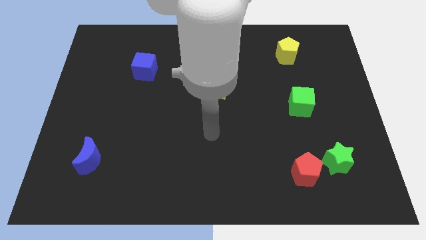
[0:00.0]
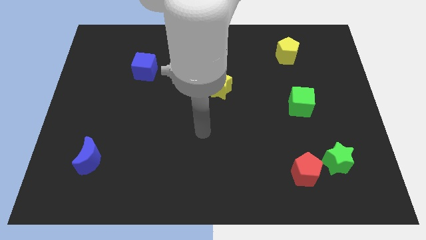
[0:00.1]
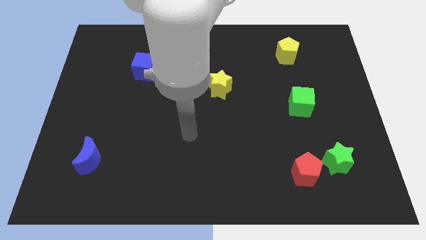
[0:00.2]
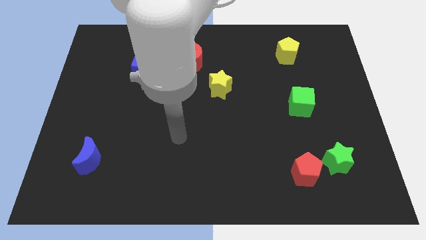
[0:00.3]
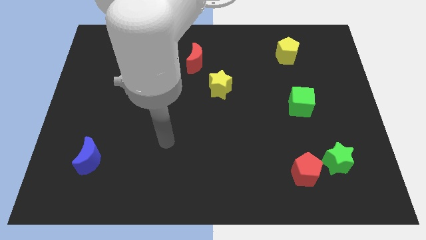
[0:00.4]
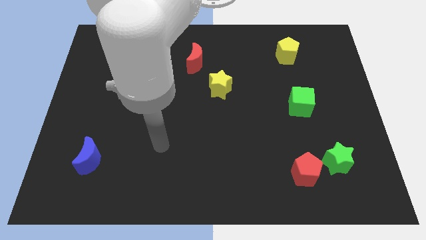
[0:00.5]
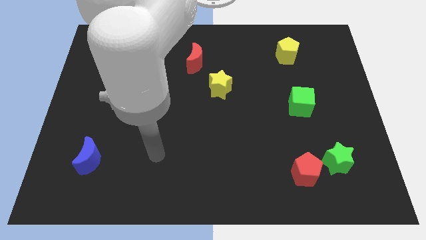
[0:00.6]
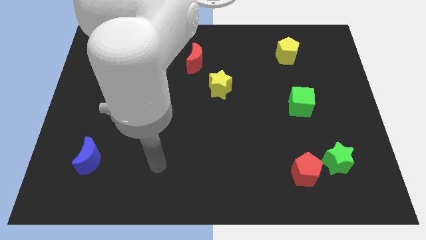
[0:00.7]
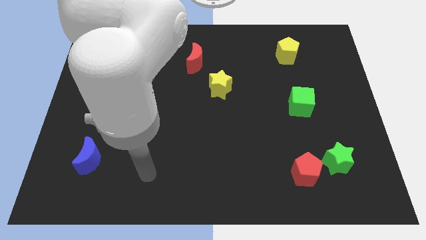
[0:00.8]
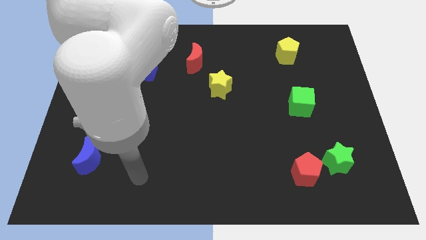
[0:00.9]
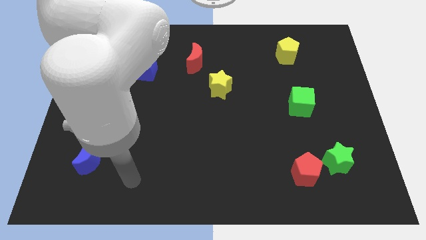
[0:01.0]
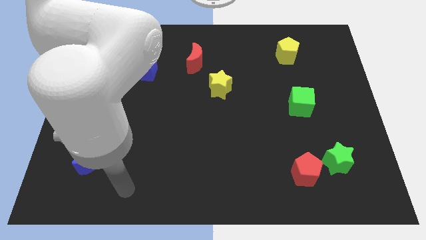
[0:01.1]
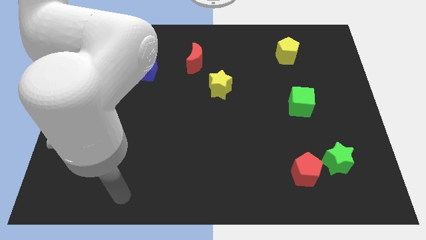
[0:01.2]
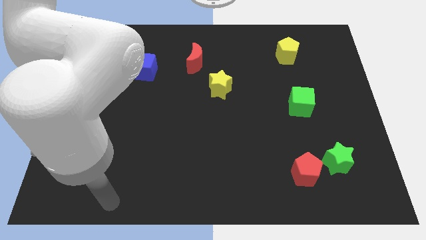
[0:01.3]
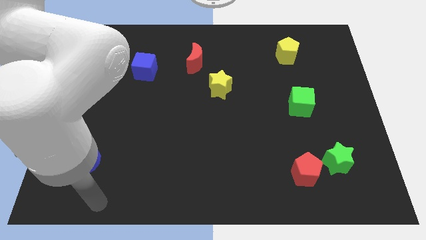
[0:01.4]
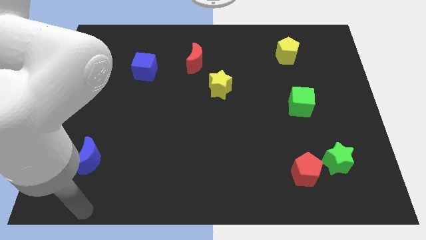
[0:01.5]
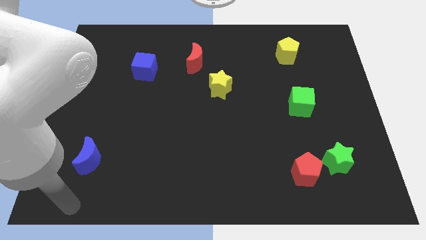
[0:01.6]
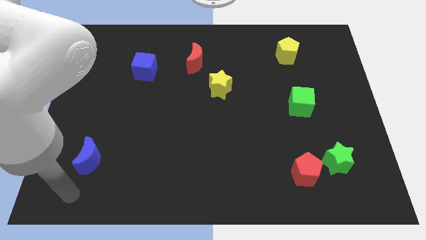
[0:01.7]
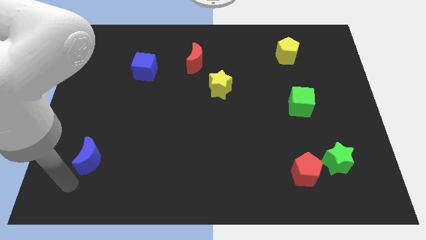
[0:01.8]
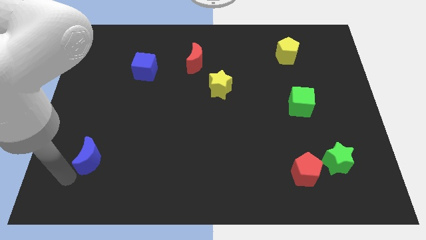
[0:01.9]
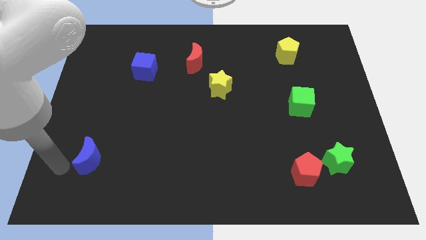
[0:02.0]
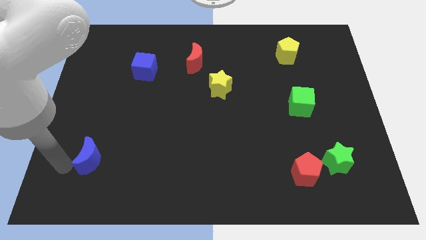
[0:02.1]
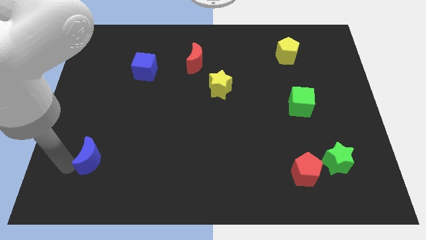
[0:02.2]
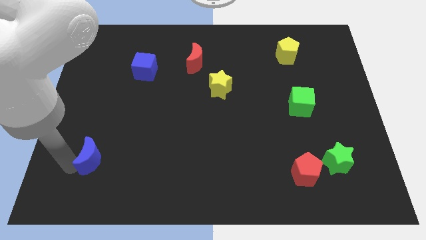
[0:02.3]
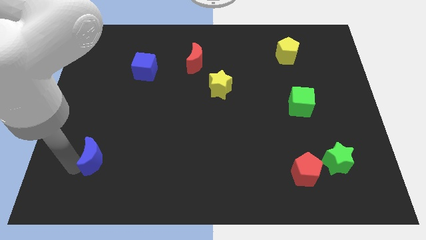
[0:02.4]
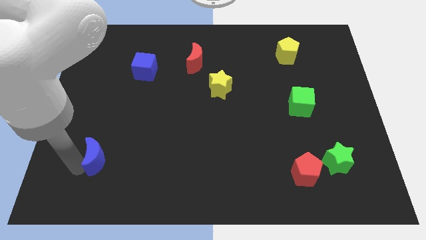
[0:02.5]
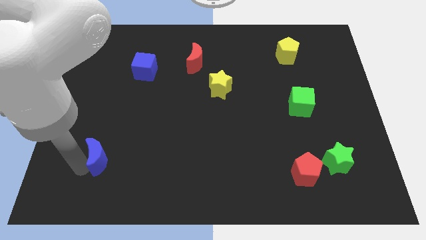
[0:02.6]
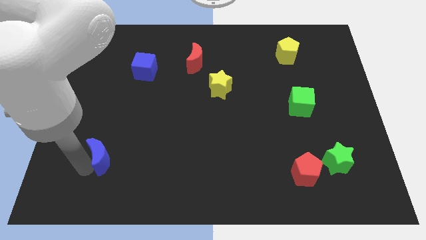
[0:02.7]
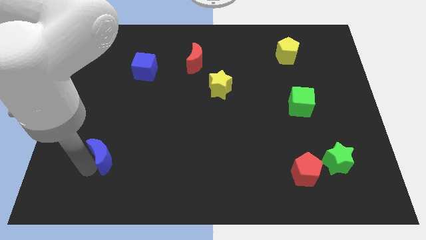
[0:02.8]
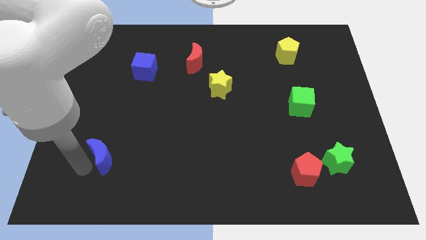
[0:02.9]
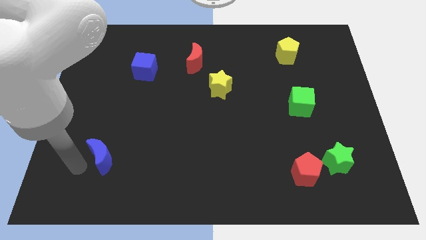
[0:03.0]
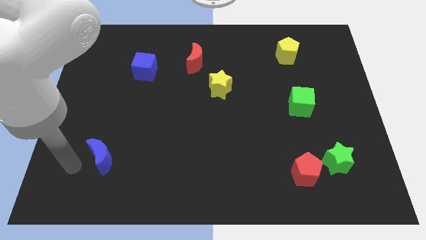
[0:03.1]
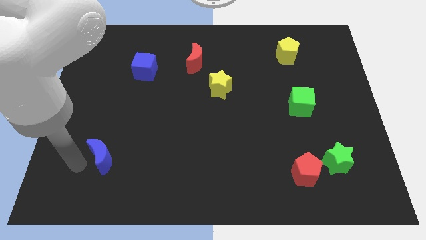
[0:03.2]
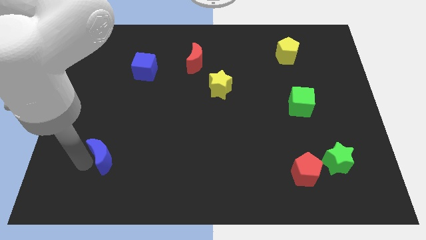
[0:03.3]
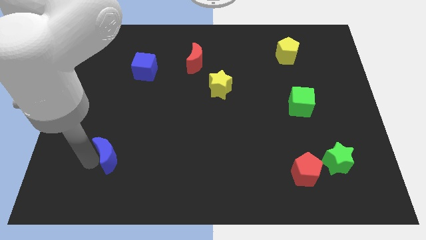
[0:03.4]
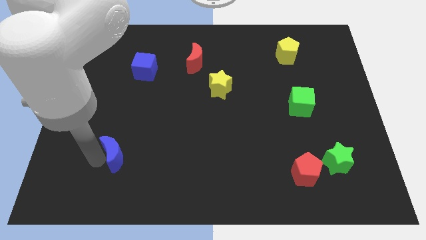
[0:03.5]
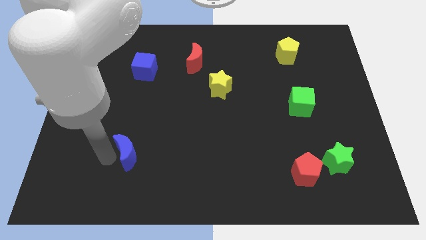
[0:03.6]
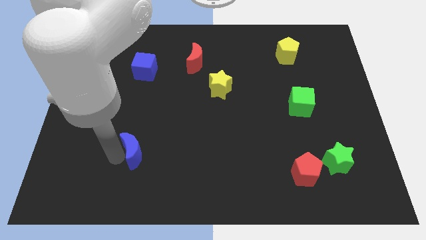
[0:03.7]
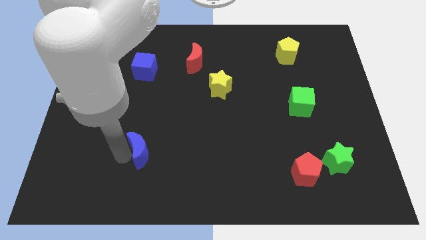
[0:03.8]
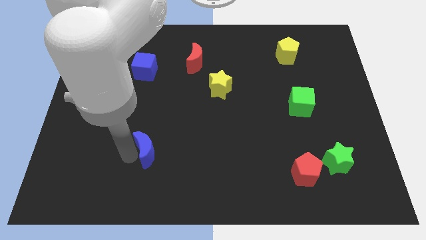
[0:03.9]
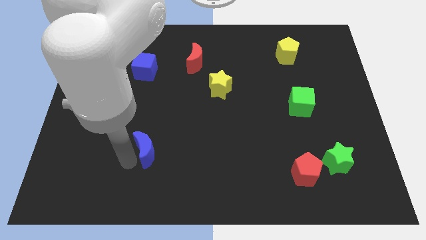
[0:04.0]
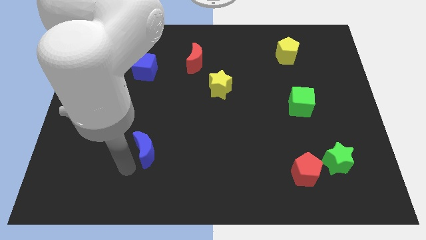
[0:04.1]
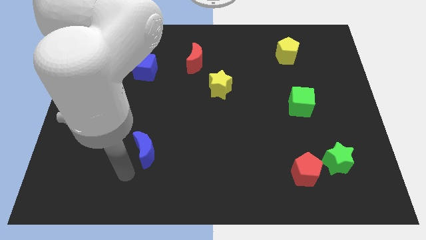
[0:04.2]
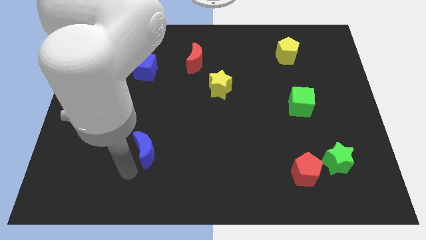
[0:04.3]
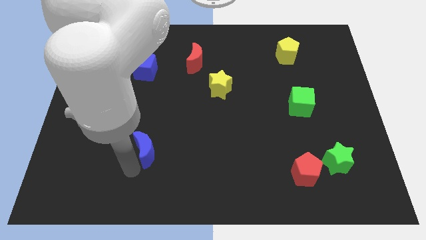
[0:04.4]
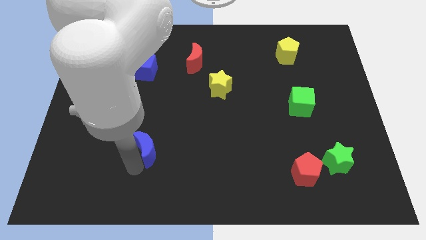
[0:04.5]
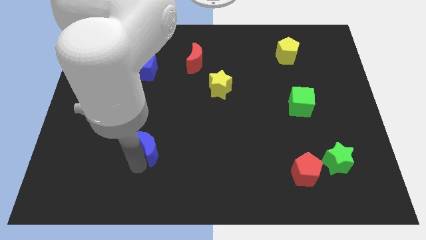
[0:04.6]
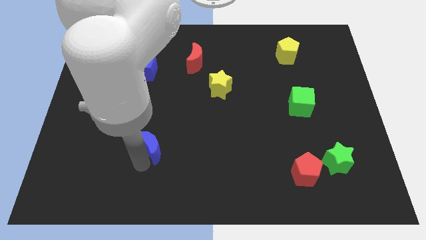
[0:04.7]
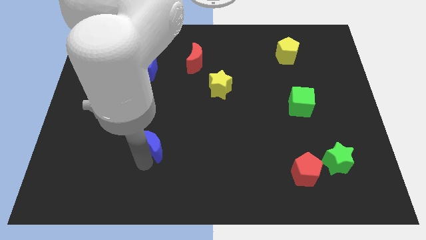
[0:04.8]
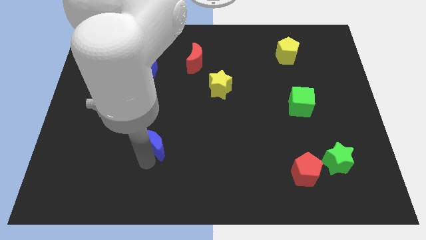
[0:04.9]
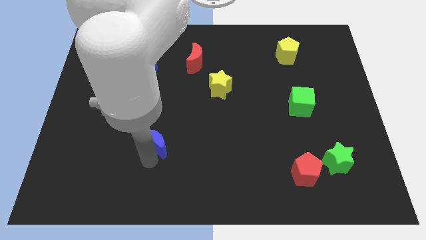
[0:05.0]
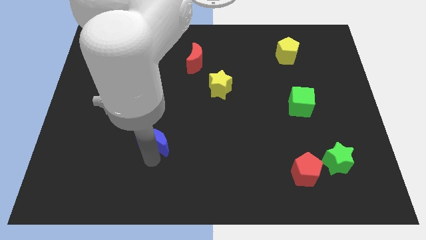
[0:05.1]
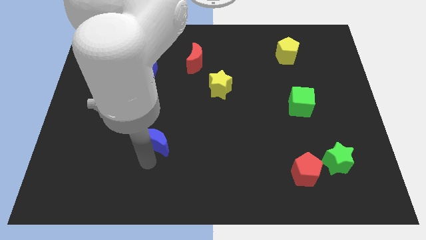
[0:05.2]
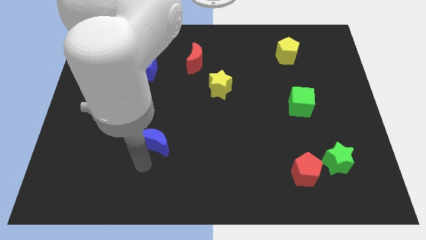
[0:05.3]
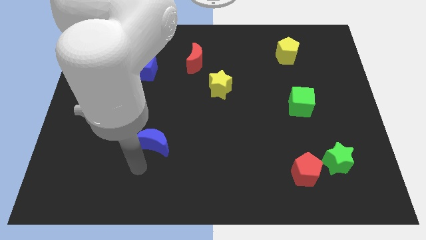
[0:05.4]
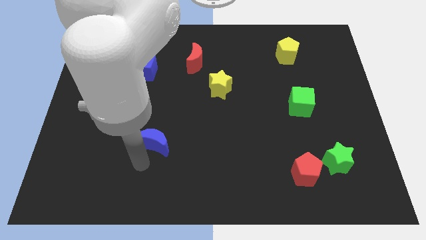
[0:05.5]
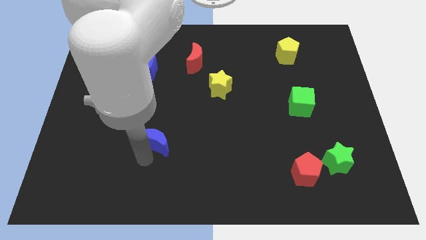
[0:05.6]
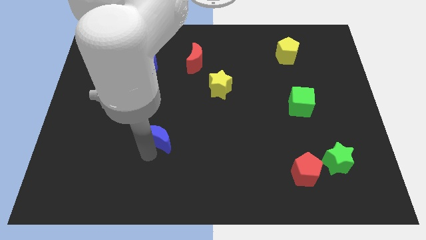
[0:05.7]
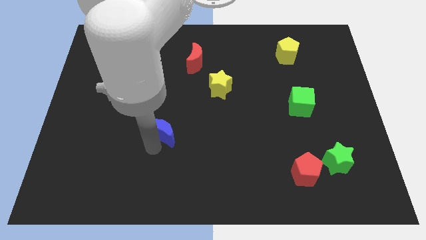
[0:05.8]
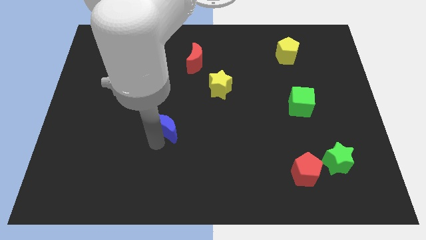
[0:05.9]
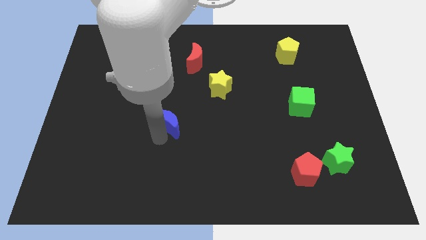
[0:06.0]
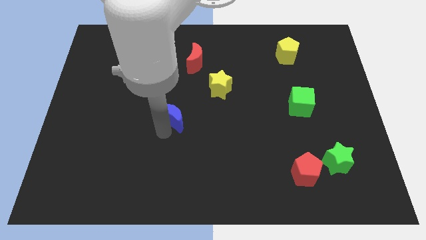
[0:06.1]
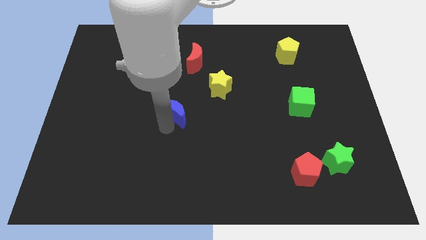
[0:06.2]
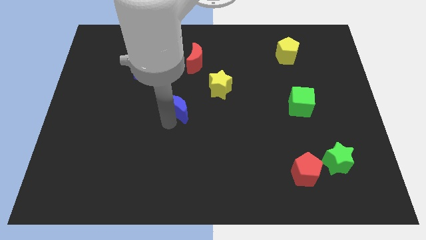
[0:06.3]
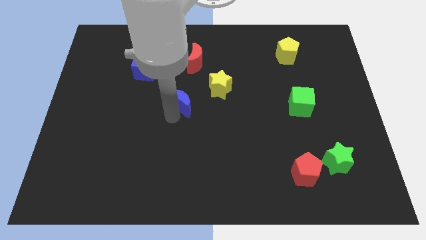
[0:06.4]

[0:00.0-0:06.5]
put the blue moon to the bottom of the red moon

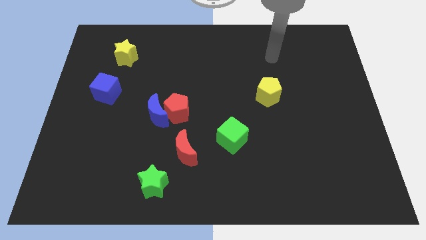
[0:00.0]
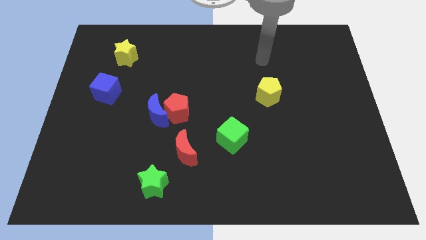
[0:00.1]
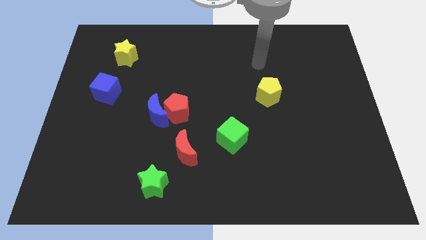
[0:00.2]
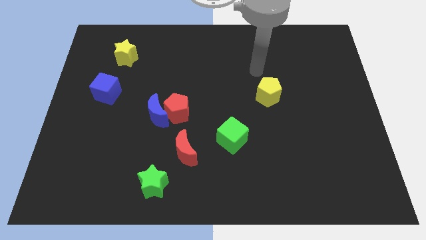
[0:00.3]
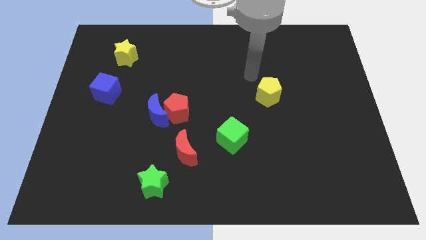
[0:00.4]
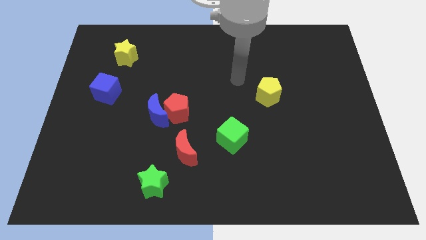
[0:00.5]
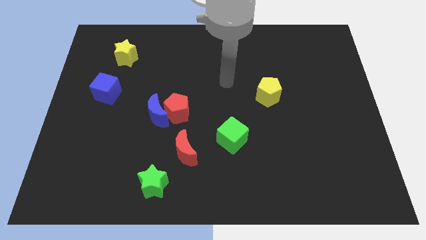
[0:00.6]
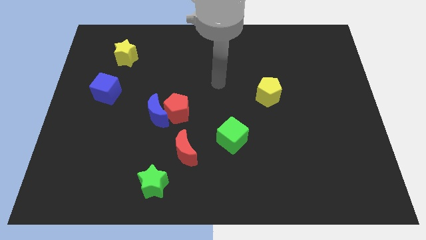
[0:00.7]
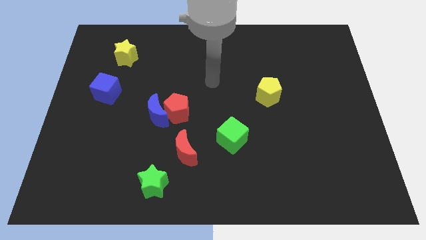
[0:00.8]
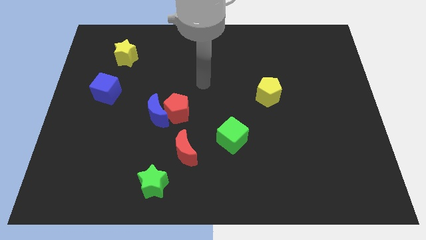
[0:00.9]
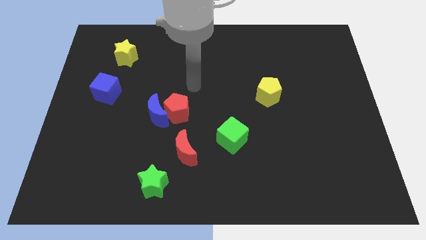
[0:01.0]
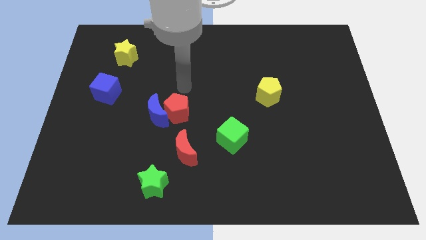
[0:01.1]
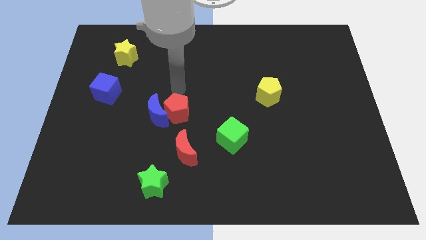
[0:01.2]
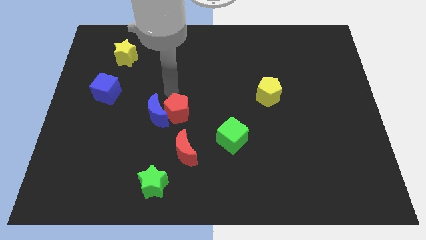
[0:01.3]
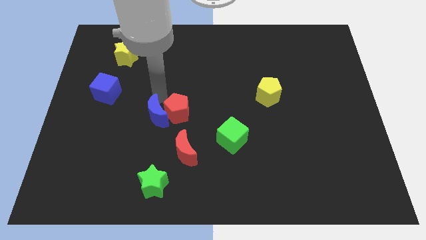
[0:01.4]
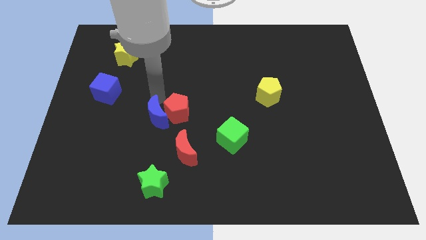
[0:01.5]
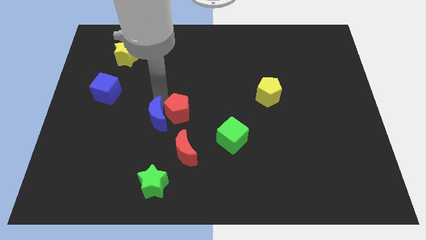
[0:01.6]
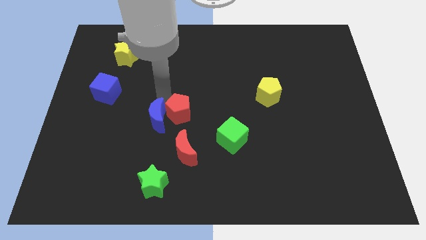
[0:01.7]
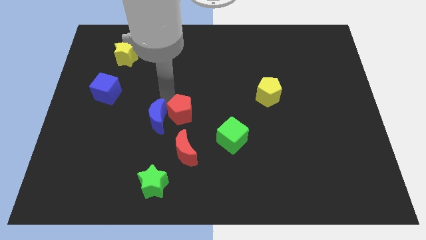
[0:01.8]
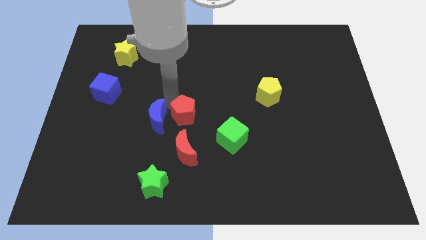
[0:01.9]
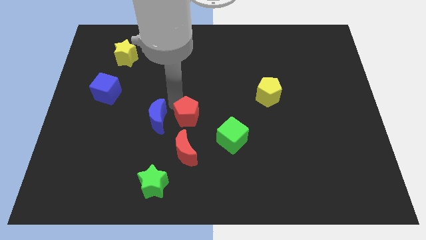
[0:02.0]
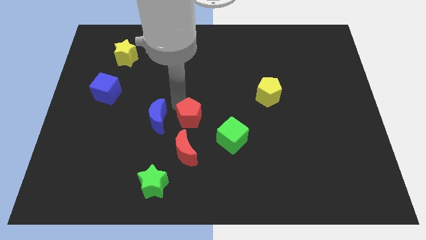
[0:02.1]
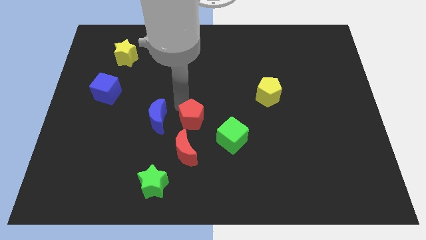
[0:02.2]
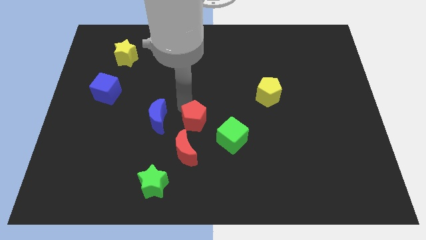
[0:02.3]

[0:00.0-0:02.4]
push the red pentagon to the top right side of the red moon
